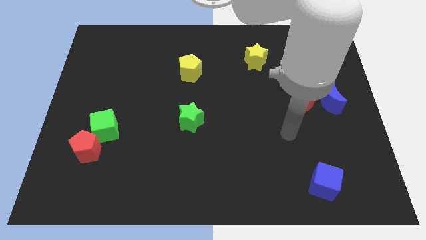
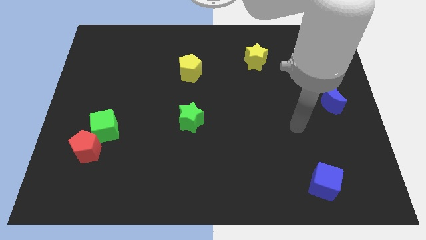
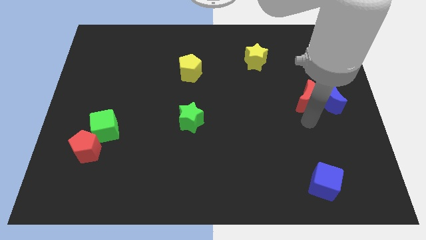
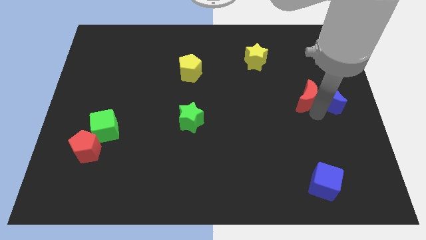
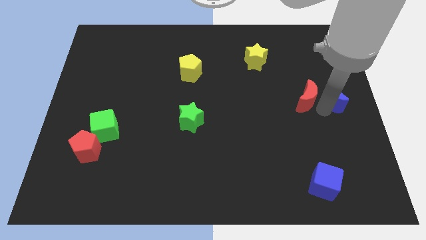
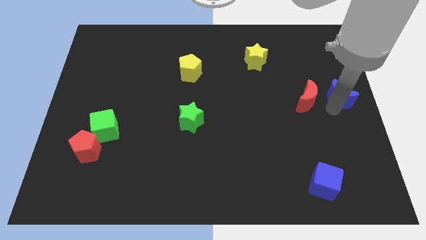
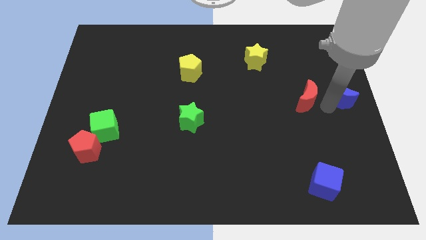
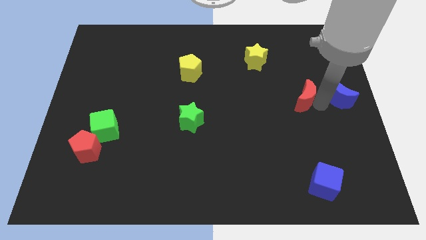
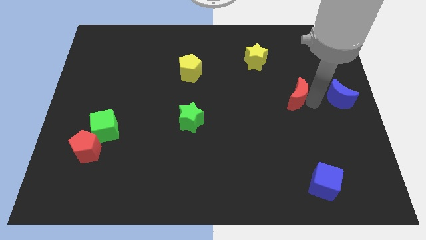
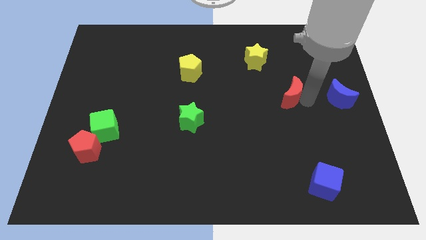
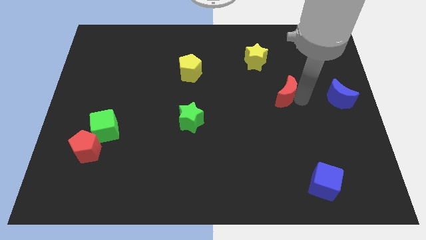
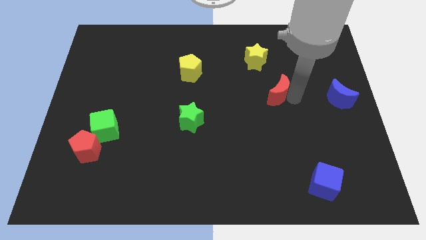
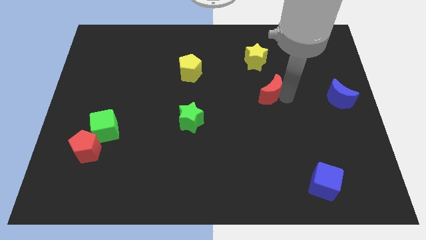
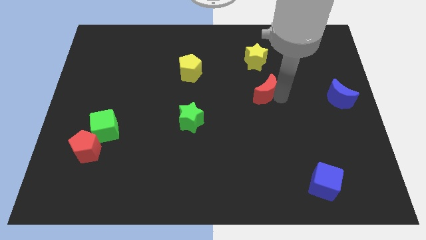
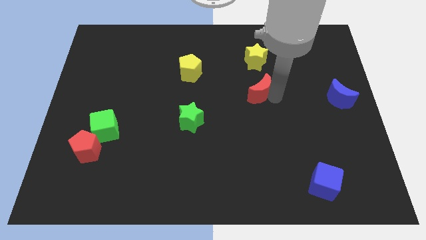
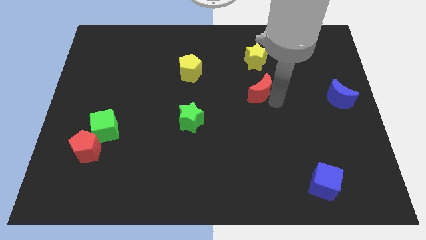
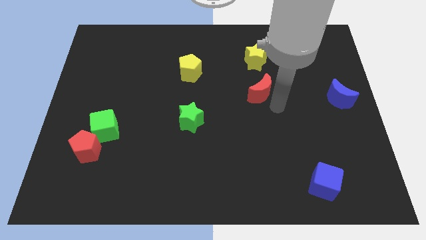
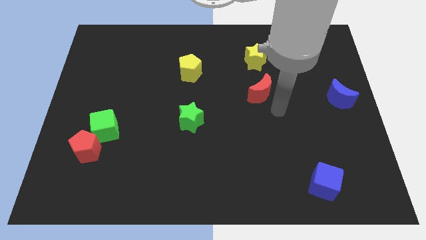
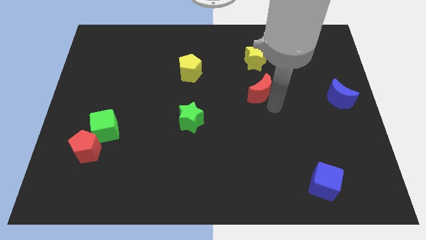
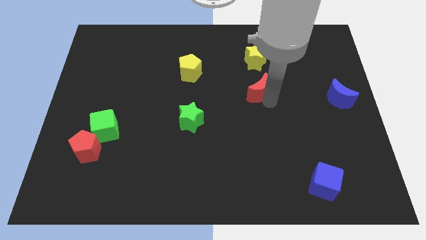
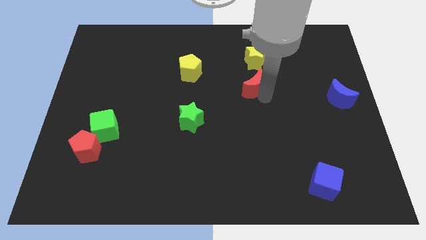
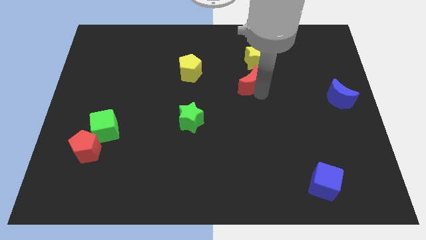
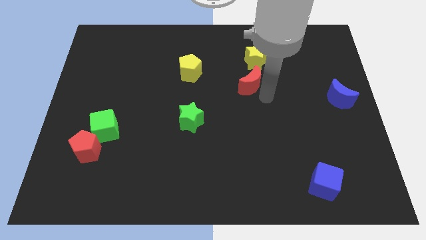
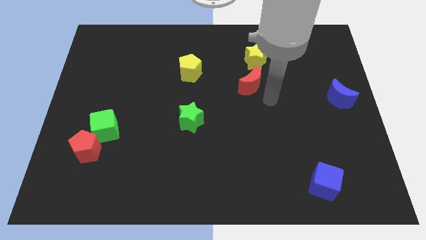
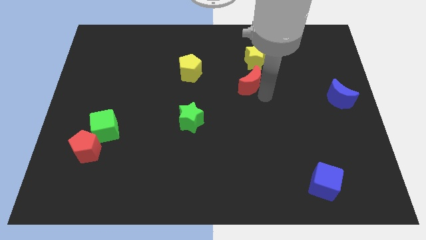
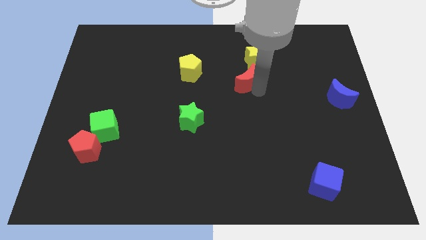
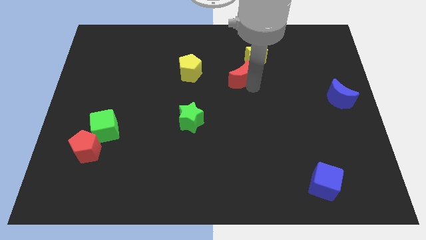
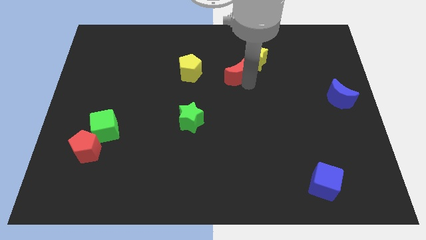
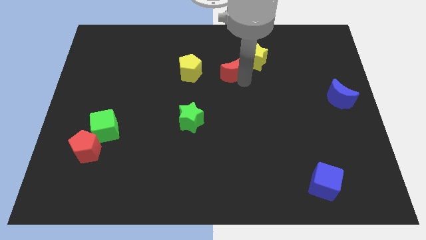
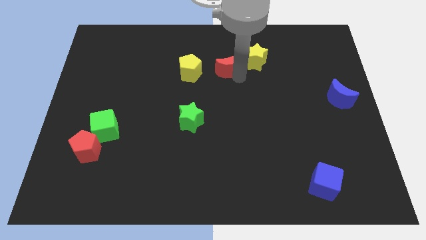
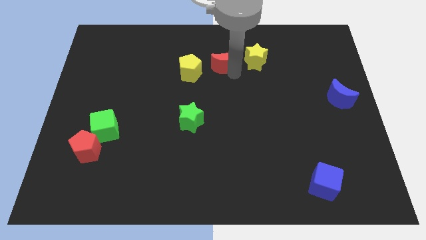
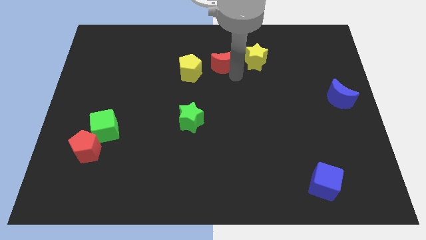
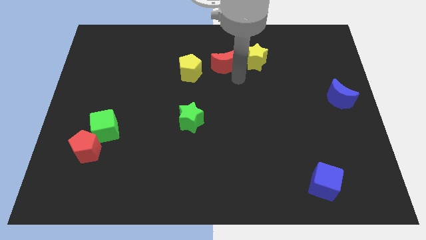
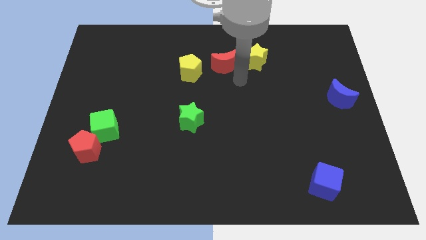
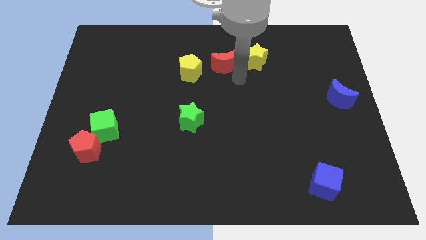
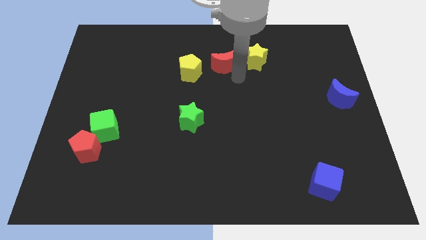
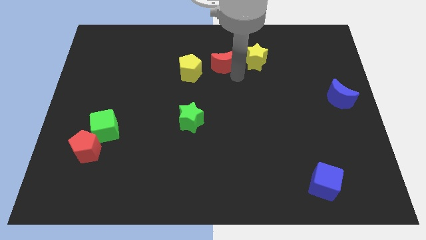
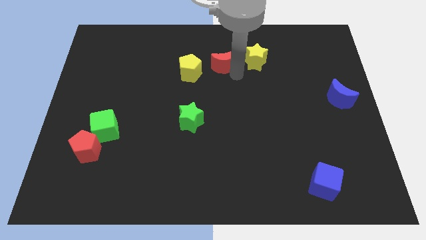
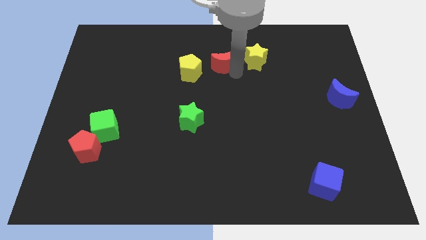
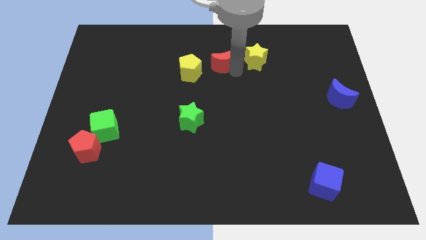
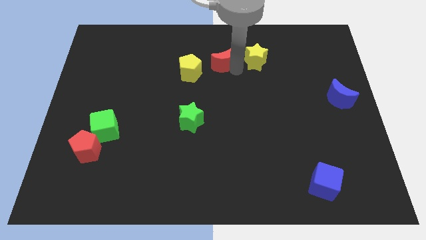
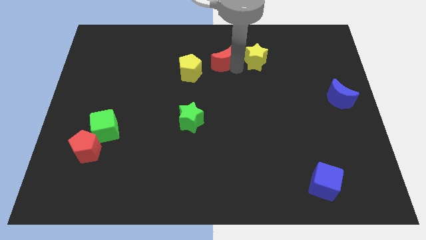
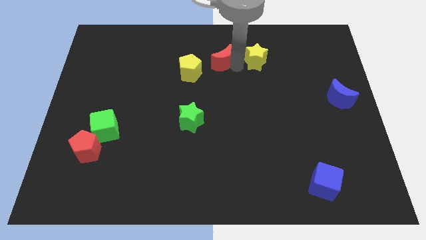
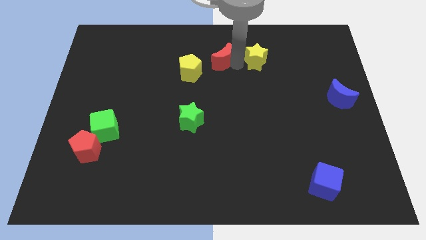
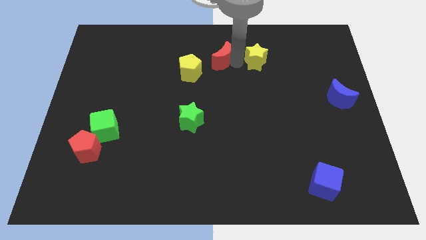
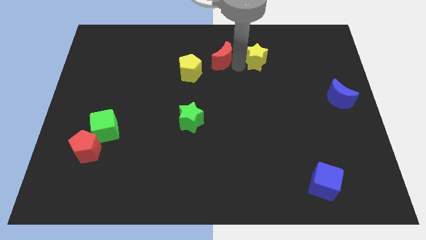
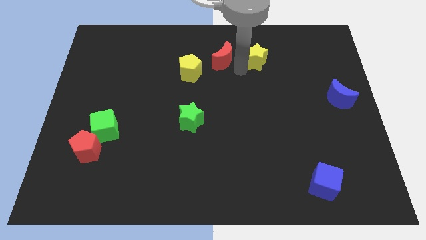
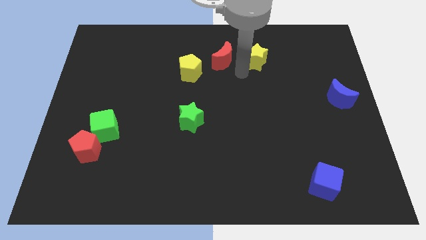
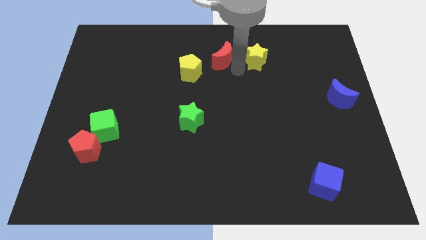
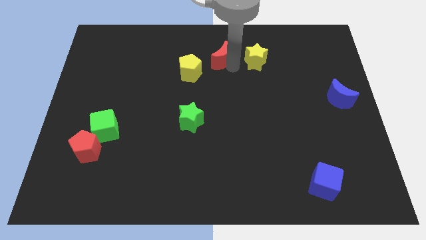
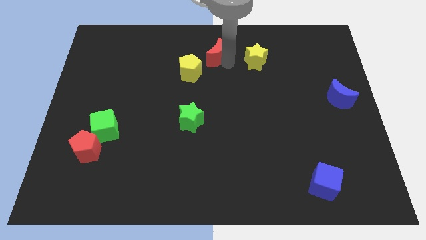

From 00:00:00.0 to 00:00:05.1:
move the red moon to the top

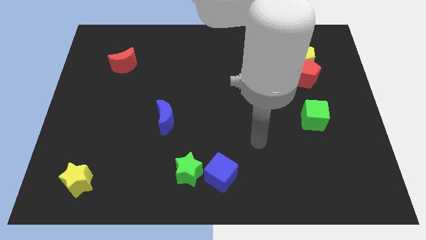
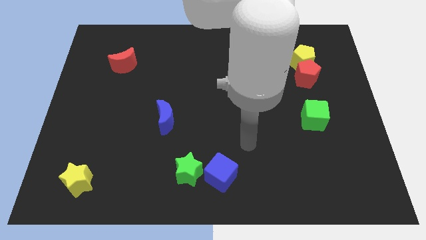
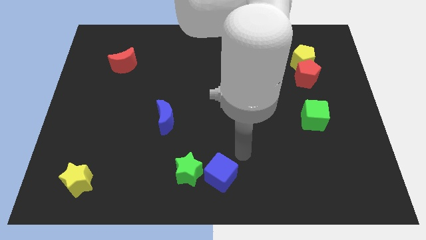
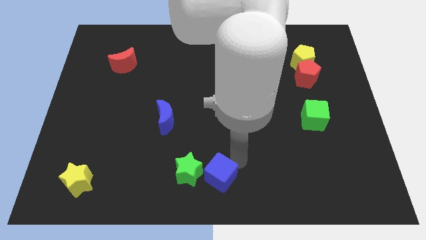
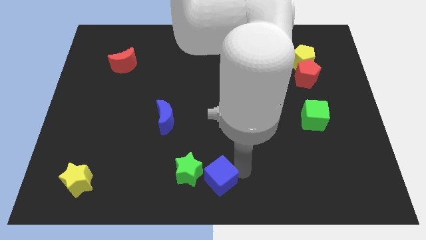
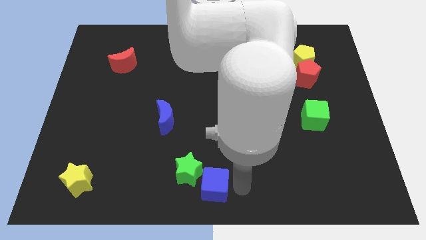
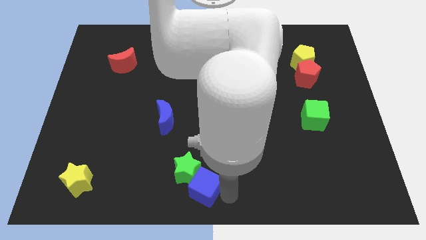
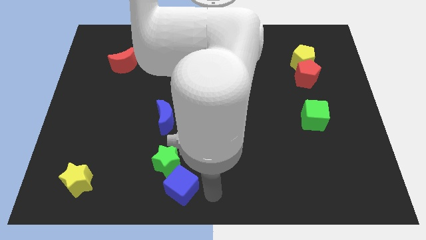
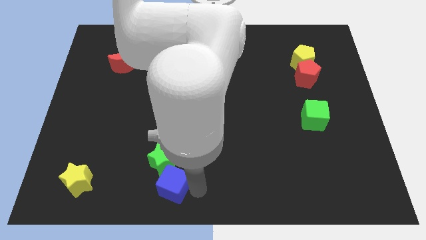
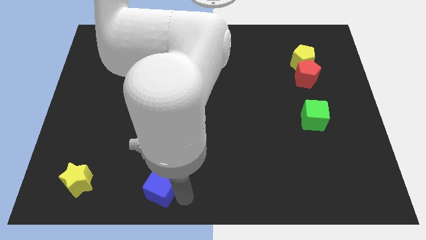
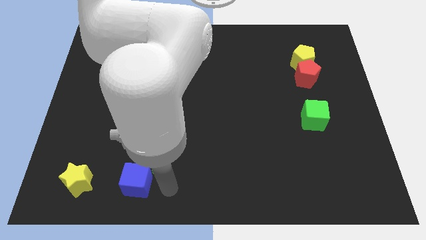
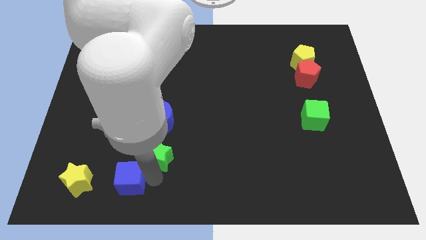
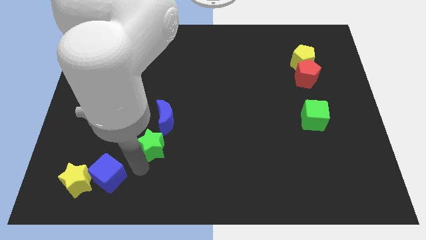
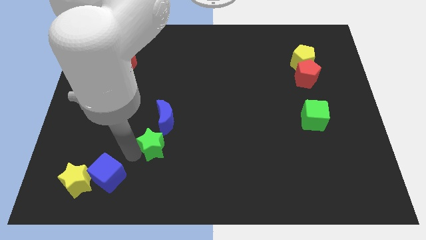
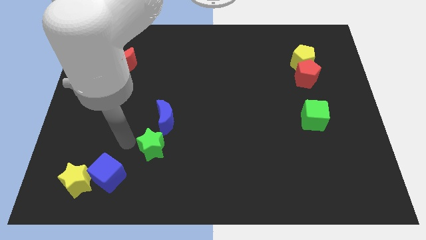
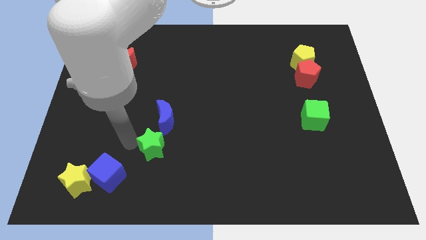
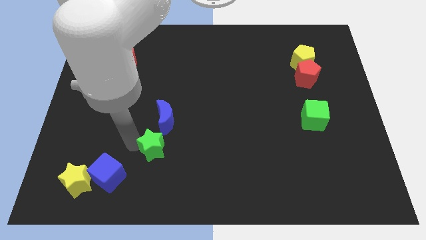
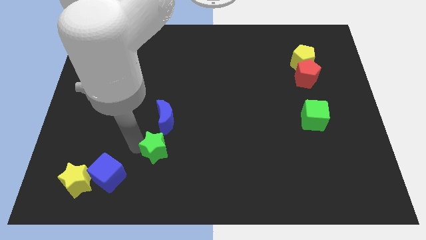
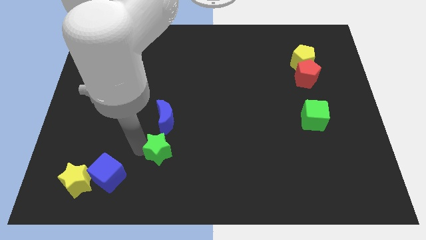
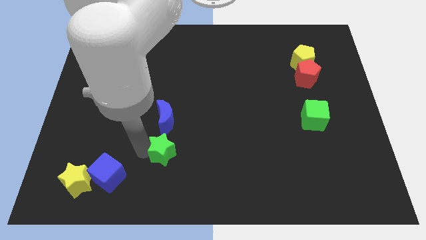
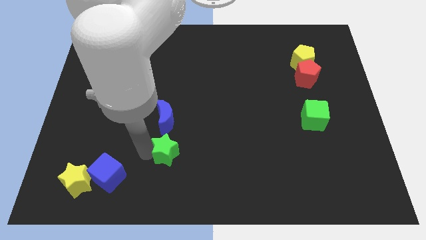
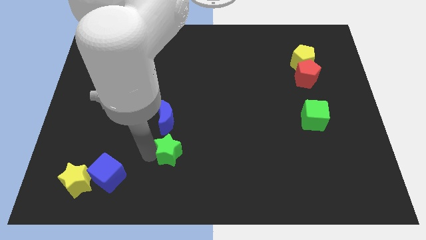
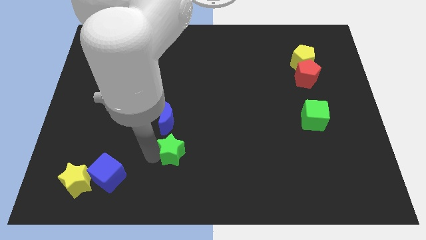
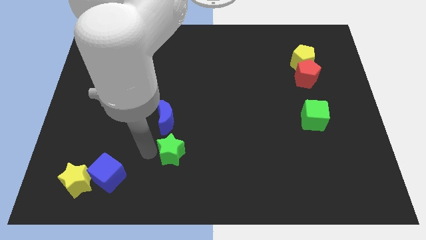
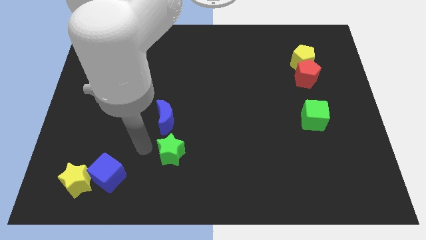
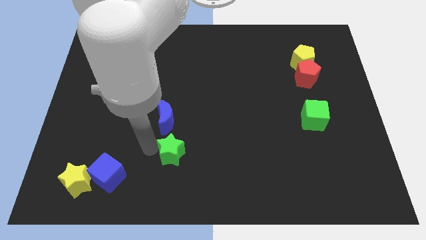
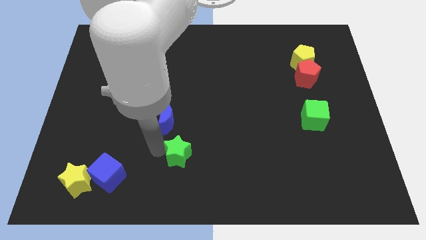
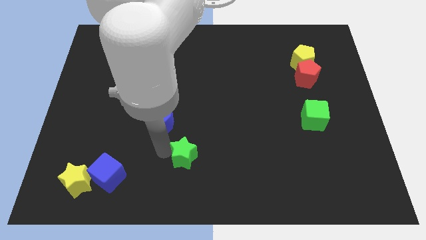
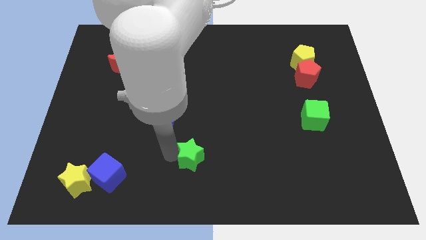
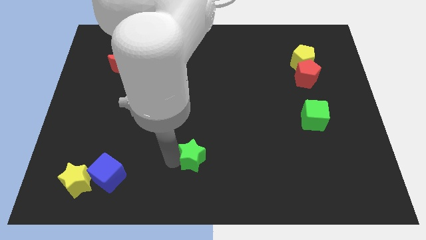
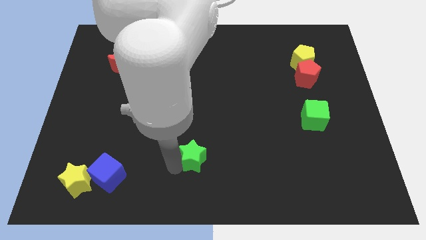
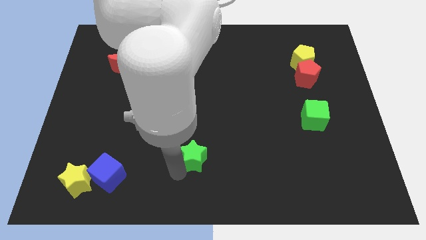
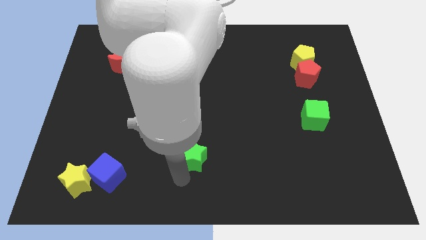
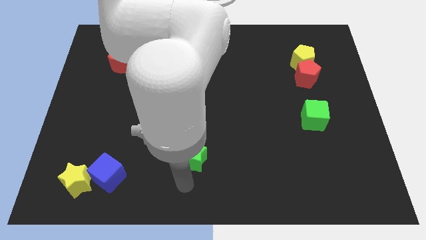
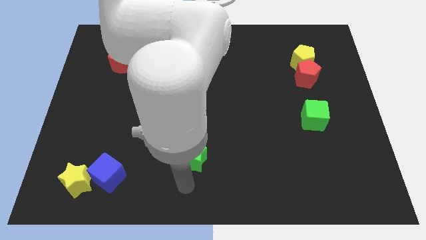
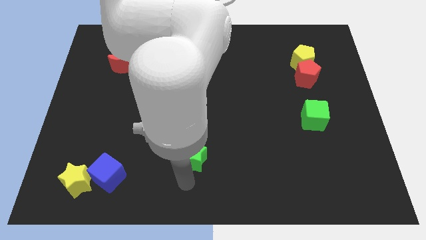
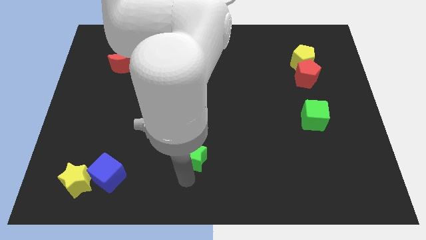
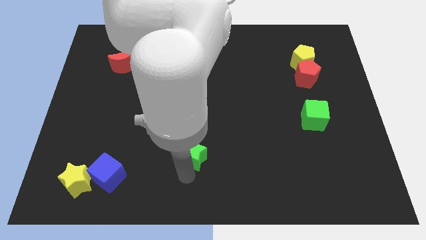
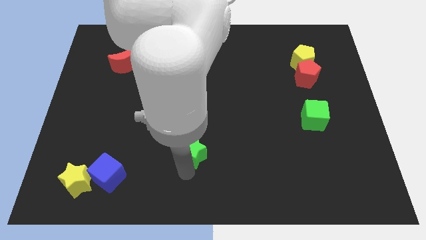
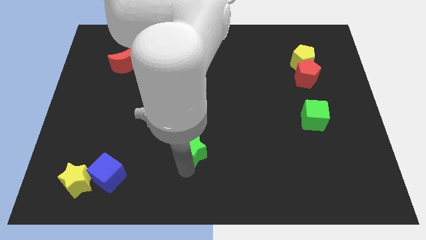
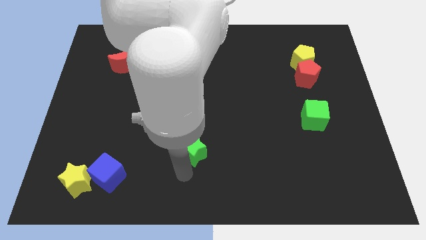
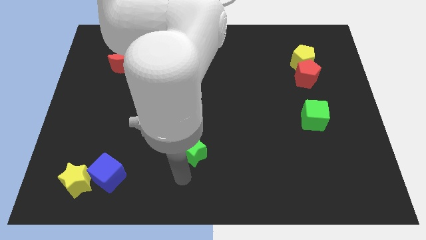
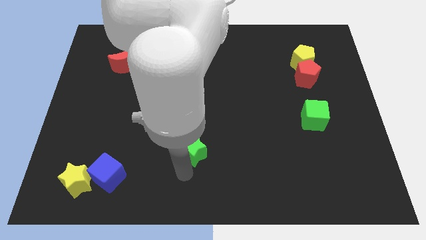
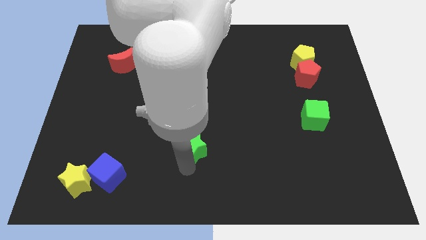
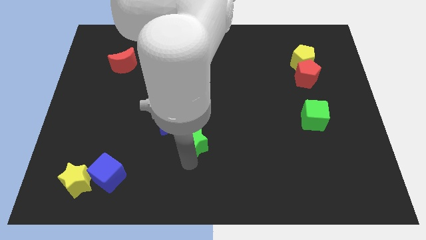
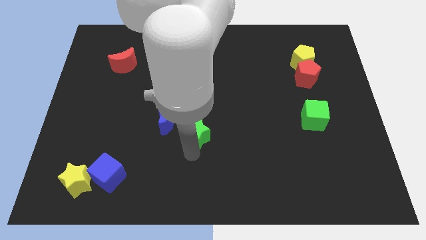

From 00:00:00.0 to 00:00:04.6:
push the green star to the center
